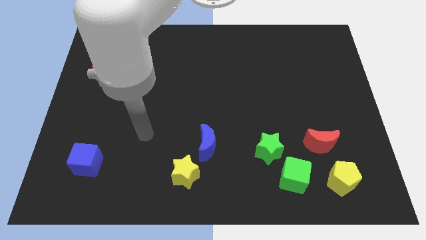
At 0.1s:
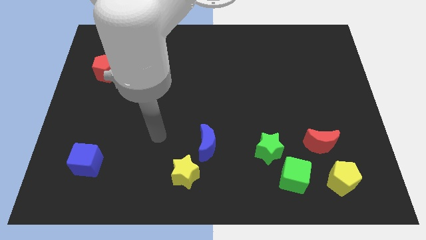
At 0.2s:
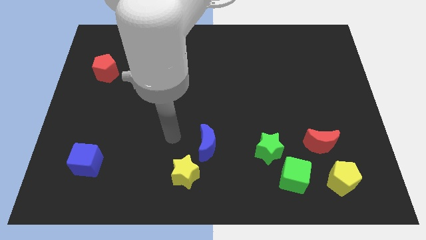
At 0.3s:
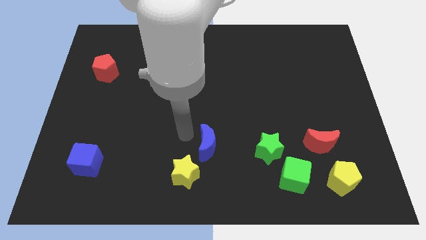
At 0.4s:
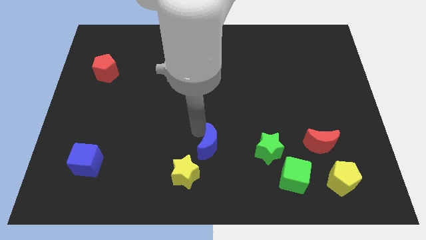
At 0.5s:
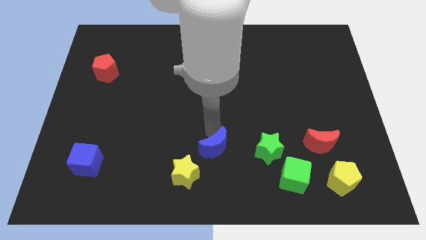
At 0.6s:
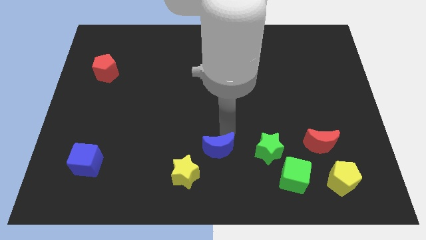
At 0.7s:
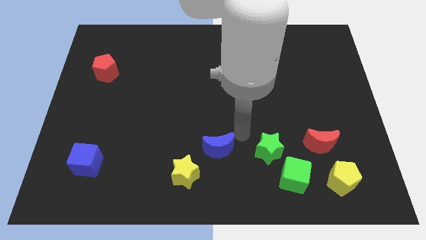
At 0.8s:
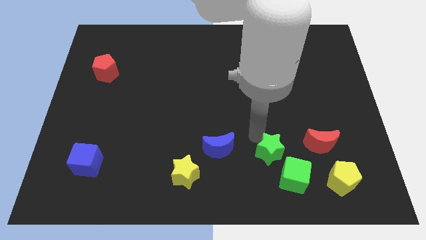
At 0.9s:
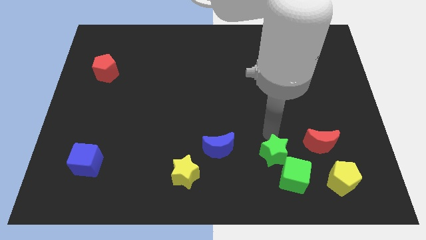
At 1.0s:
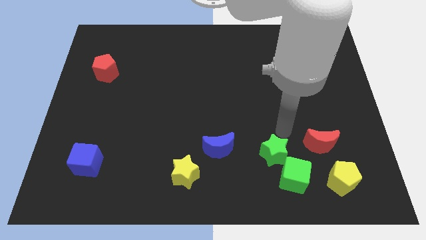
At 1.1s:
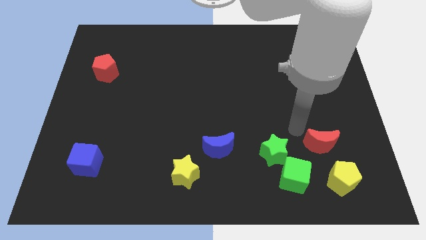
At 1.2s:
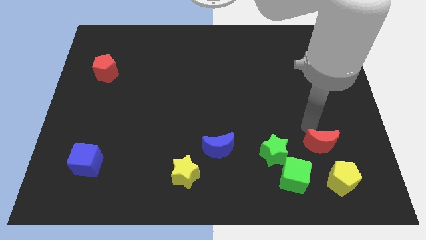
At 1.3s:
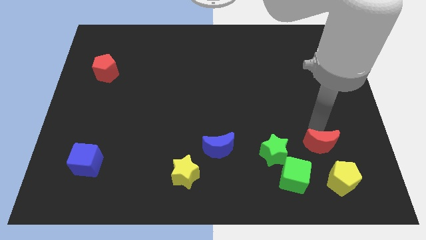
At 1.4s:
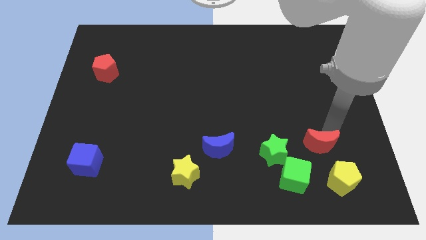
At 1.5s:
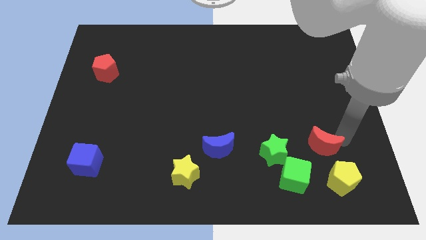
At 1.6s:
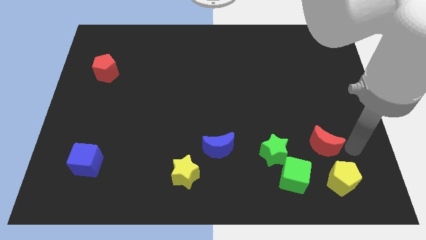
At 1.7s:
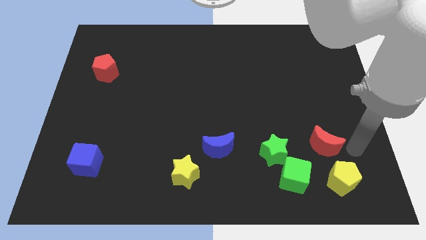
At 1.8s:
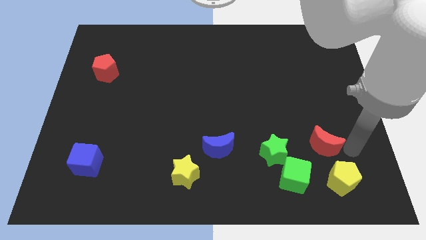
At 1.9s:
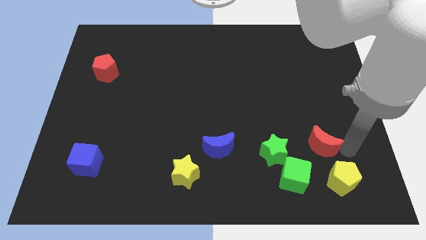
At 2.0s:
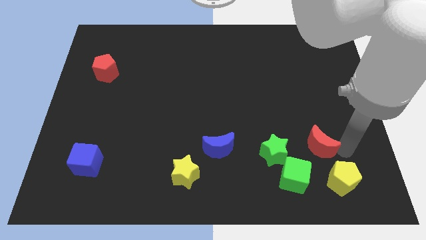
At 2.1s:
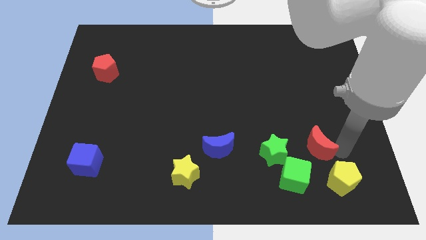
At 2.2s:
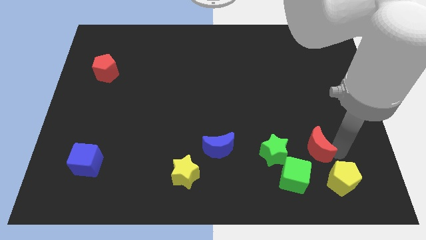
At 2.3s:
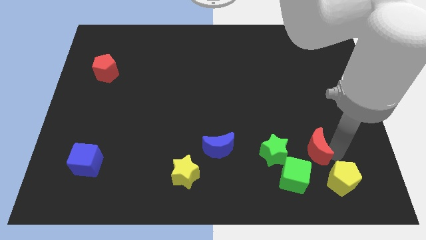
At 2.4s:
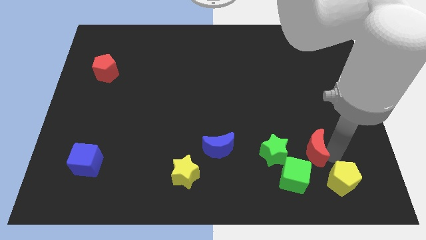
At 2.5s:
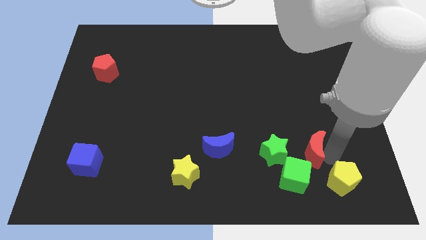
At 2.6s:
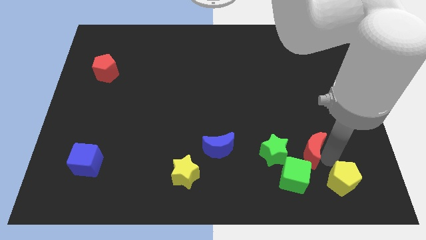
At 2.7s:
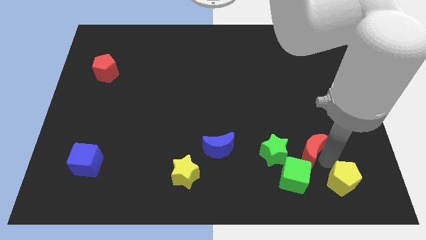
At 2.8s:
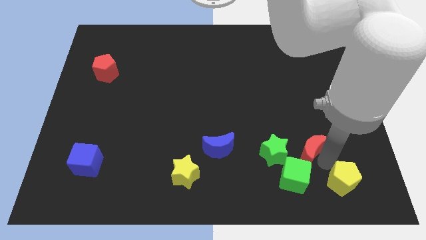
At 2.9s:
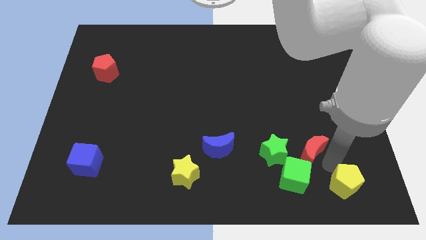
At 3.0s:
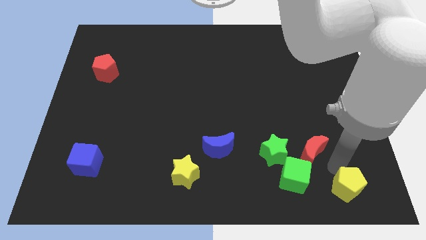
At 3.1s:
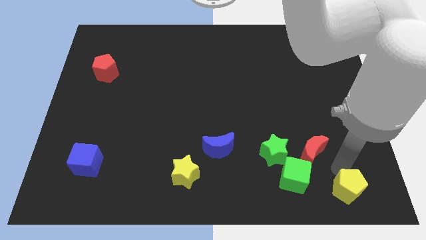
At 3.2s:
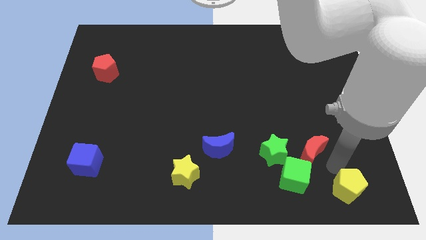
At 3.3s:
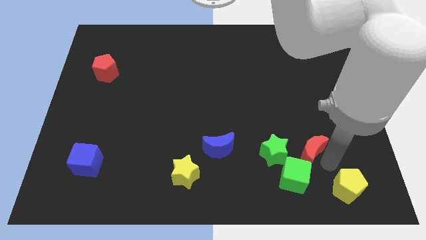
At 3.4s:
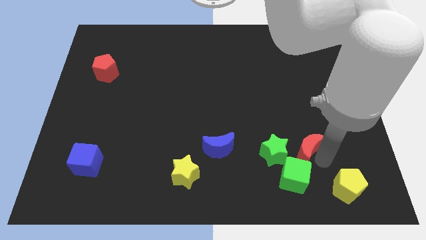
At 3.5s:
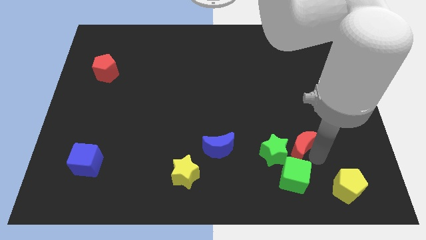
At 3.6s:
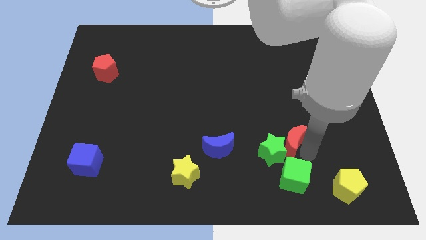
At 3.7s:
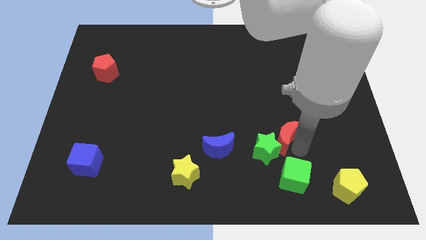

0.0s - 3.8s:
slightly push the red moon left

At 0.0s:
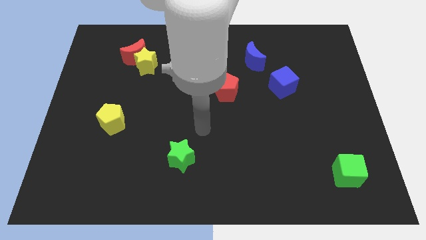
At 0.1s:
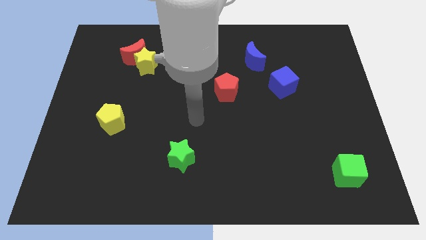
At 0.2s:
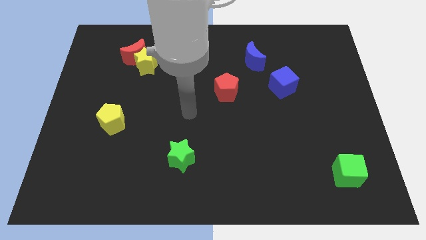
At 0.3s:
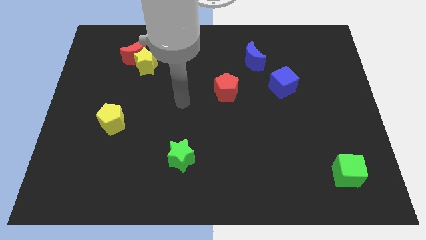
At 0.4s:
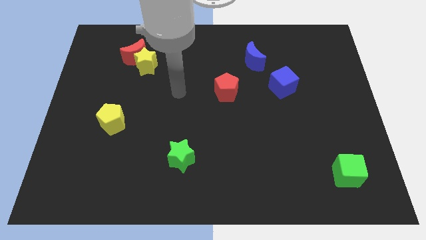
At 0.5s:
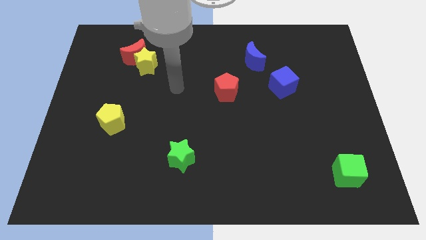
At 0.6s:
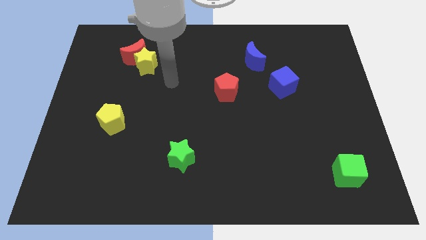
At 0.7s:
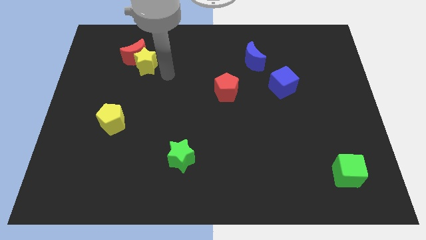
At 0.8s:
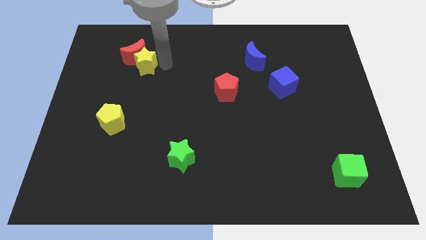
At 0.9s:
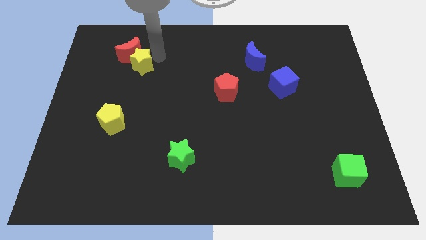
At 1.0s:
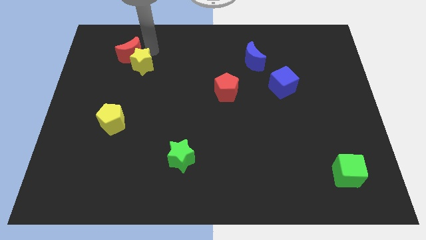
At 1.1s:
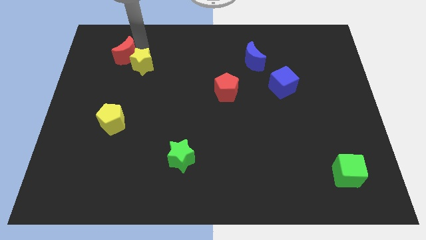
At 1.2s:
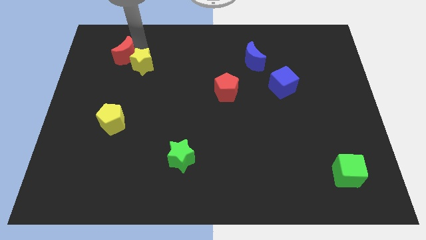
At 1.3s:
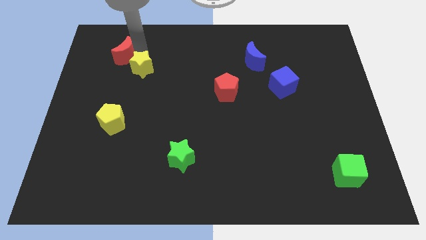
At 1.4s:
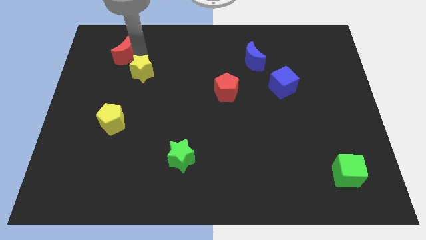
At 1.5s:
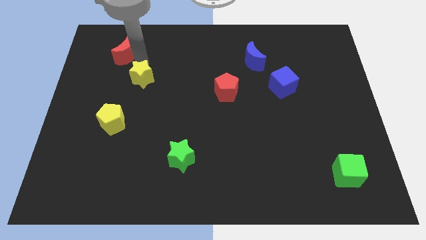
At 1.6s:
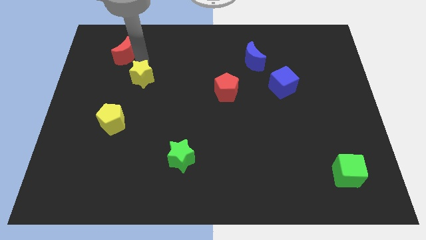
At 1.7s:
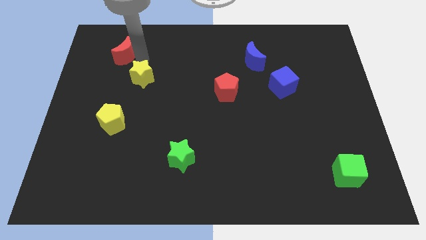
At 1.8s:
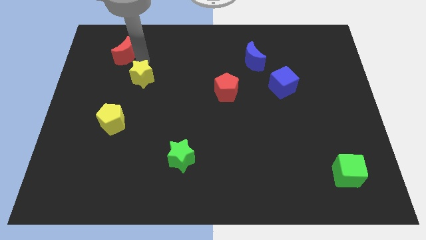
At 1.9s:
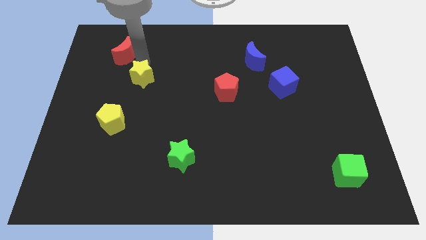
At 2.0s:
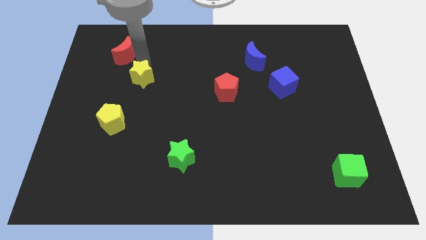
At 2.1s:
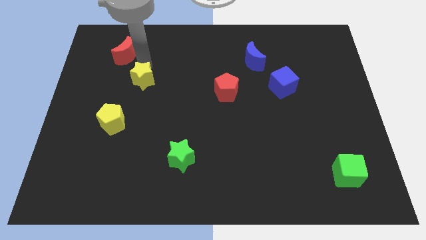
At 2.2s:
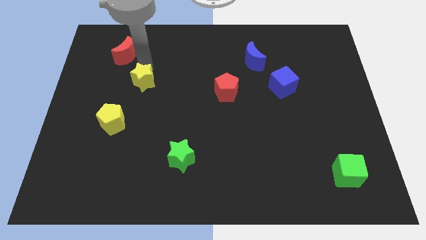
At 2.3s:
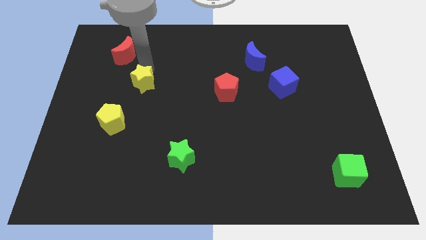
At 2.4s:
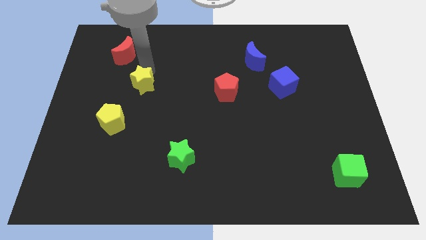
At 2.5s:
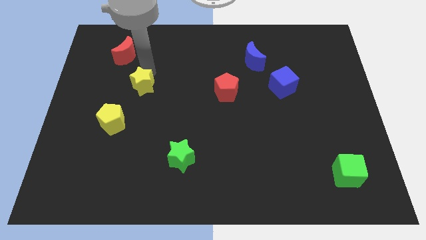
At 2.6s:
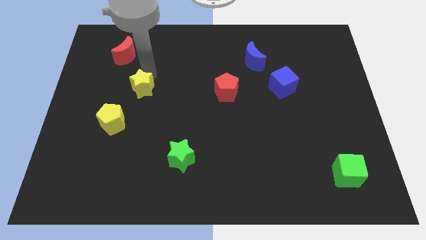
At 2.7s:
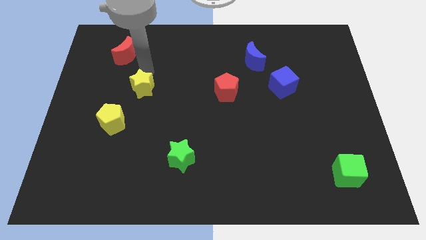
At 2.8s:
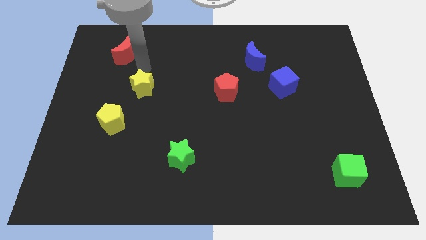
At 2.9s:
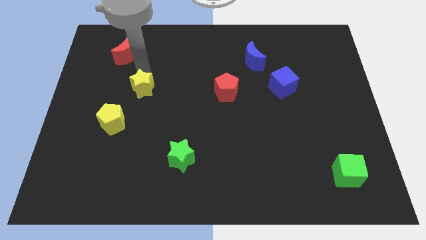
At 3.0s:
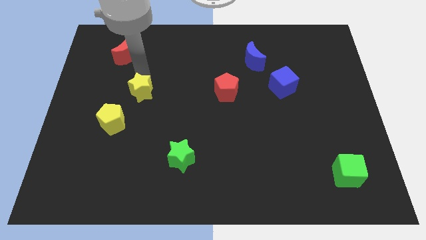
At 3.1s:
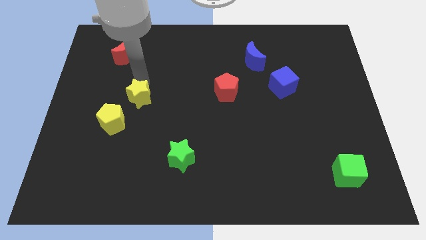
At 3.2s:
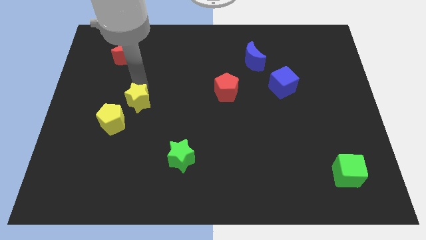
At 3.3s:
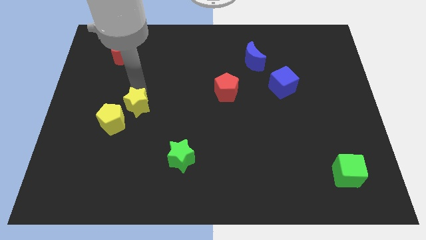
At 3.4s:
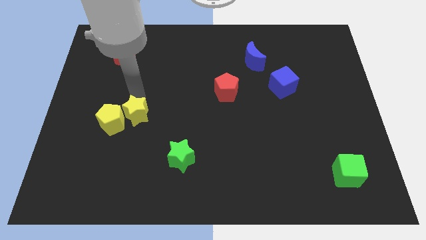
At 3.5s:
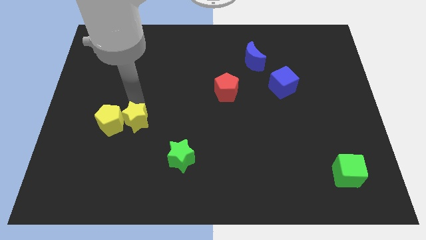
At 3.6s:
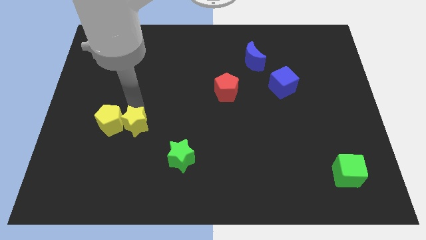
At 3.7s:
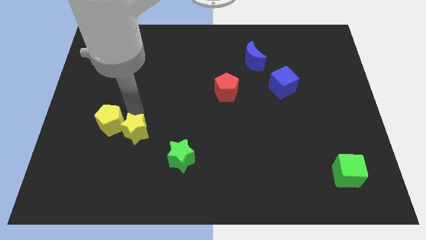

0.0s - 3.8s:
push the yellow star downwards

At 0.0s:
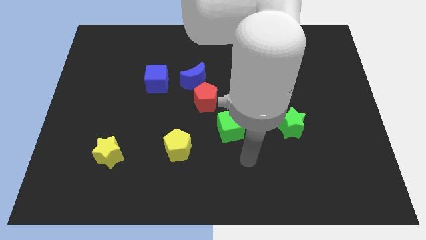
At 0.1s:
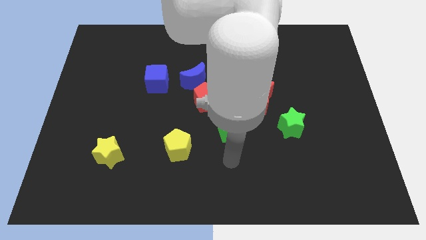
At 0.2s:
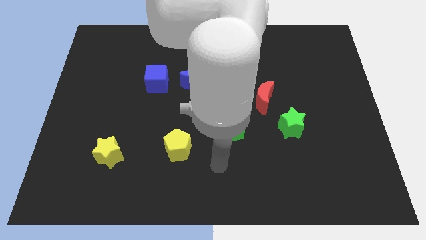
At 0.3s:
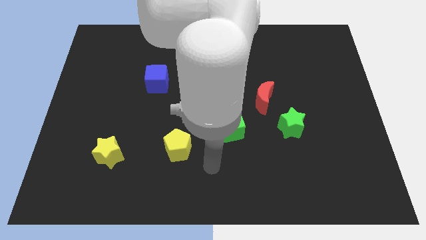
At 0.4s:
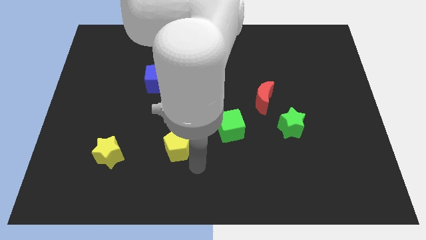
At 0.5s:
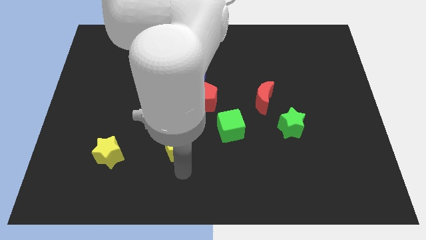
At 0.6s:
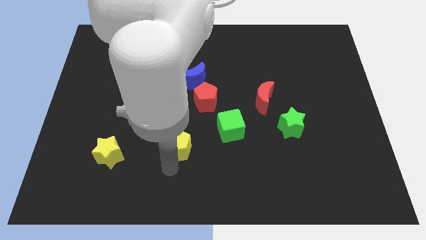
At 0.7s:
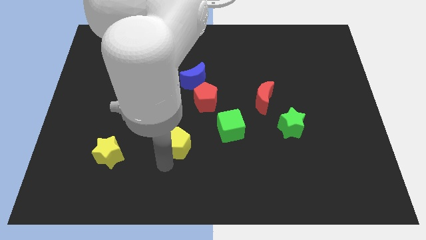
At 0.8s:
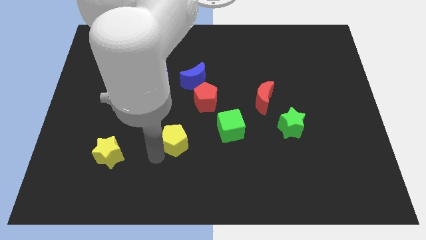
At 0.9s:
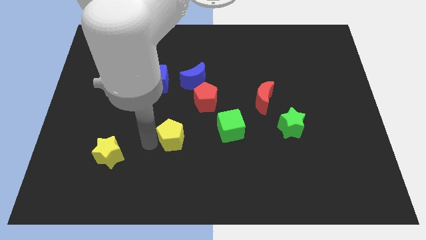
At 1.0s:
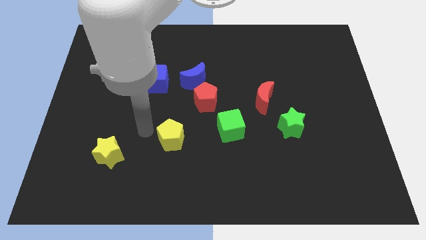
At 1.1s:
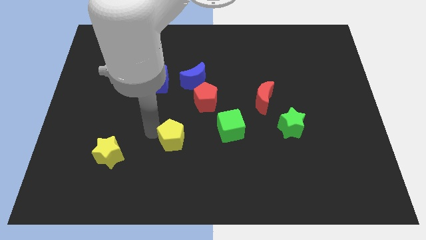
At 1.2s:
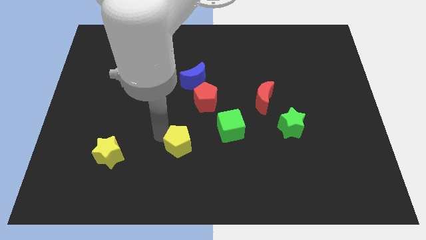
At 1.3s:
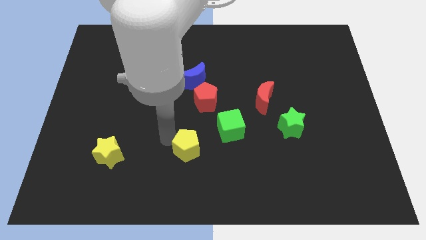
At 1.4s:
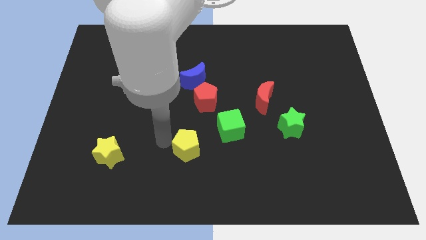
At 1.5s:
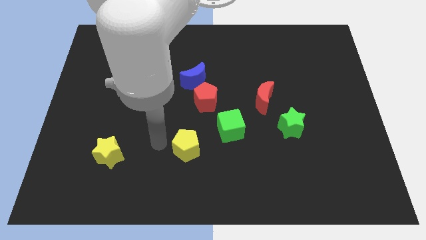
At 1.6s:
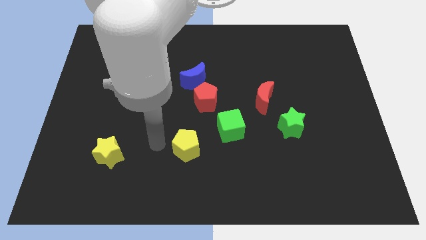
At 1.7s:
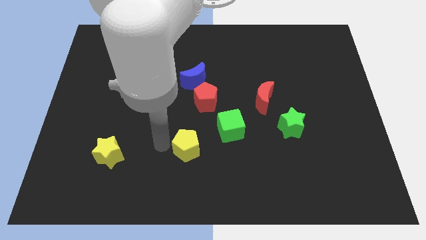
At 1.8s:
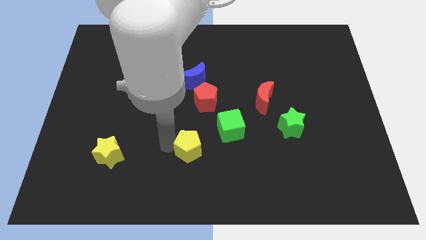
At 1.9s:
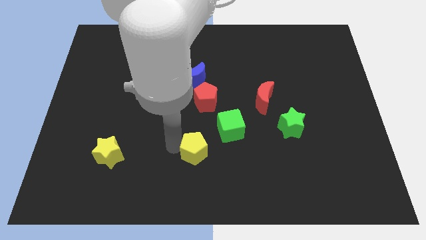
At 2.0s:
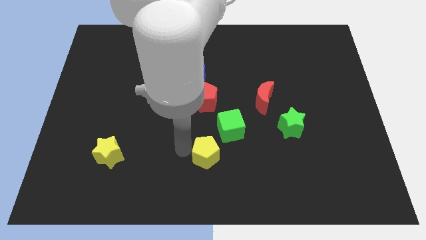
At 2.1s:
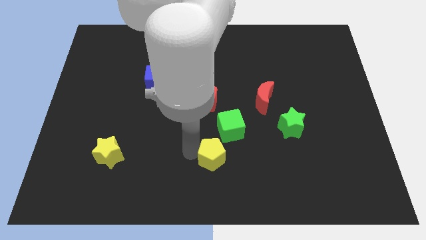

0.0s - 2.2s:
slide the yellow pentagon a little right
